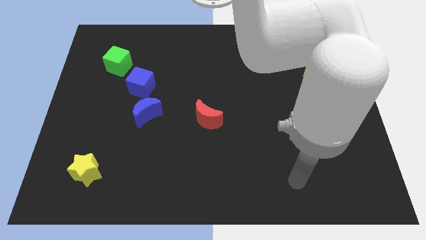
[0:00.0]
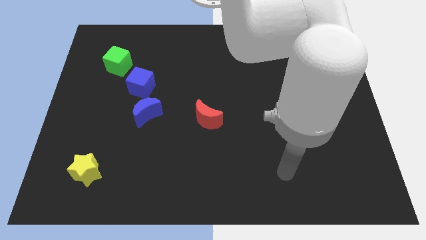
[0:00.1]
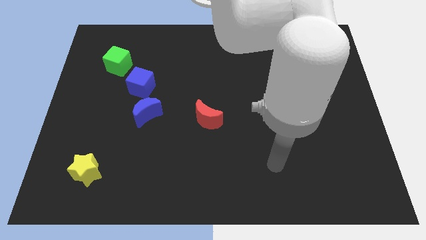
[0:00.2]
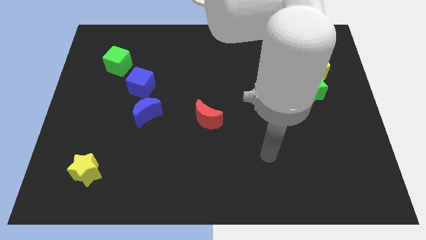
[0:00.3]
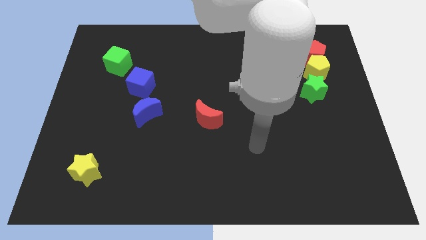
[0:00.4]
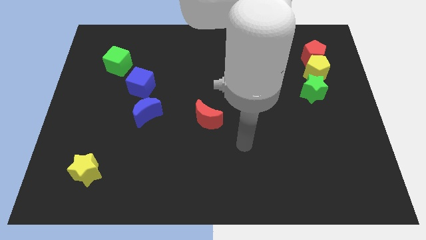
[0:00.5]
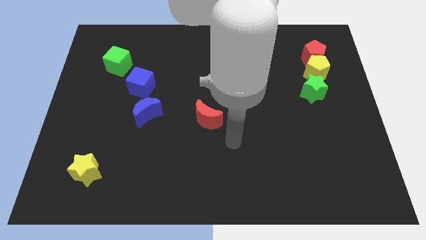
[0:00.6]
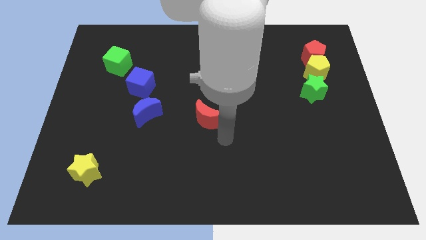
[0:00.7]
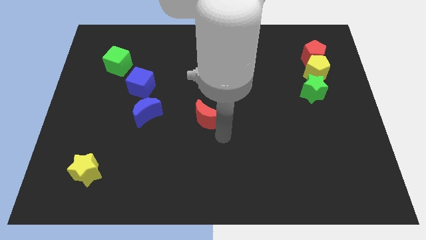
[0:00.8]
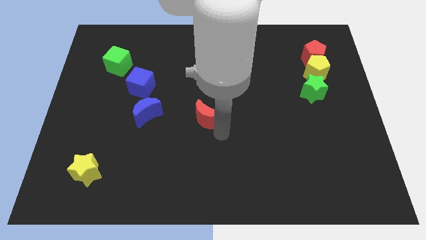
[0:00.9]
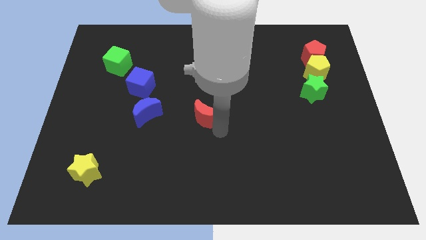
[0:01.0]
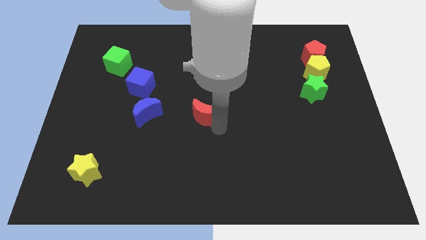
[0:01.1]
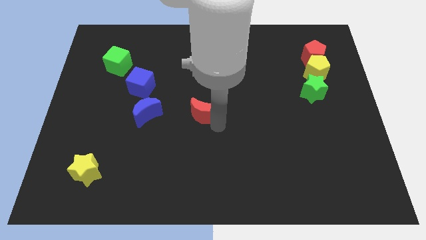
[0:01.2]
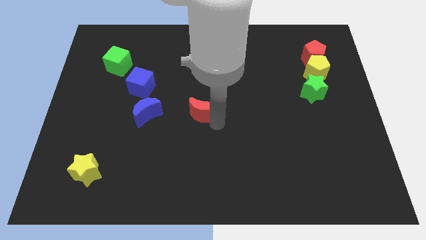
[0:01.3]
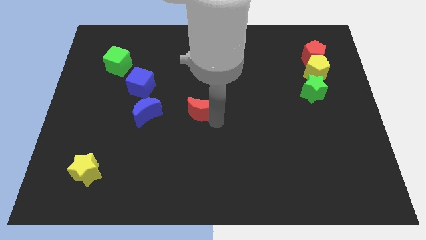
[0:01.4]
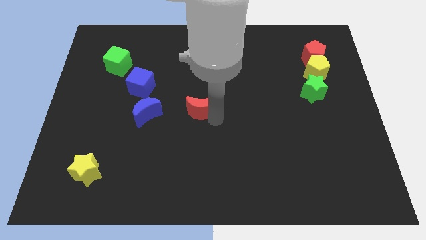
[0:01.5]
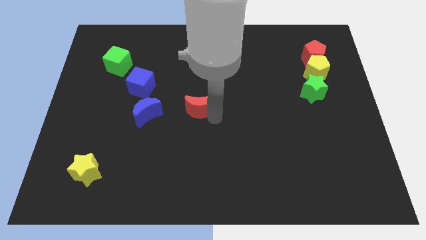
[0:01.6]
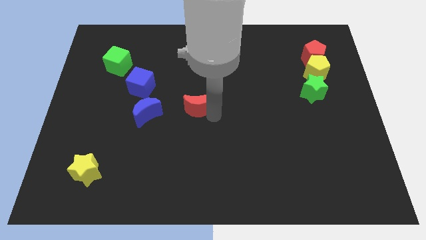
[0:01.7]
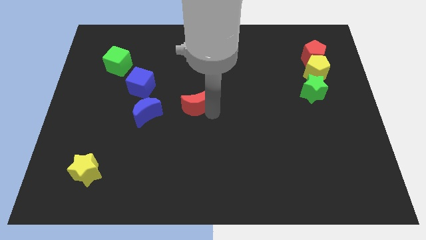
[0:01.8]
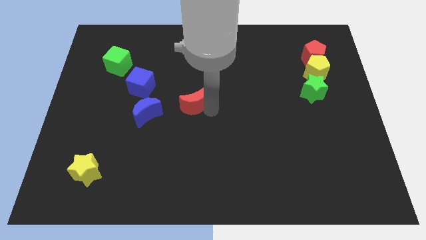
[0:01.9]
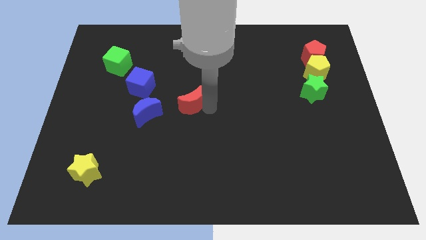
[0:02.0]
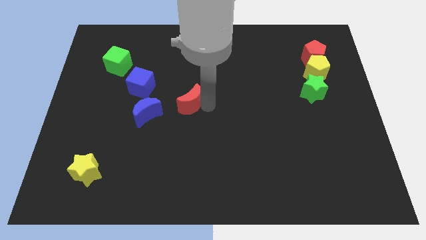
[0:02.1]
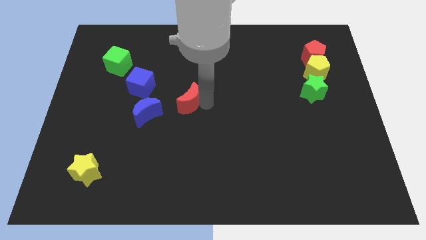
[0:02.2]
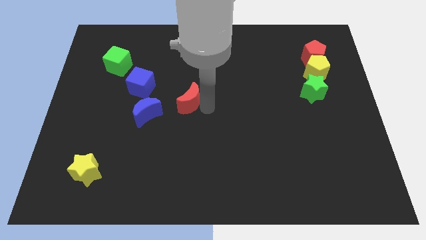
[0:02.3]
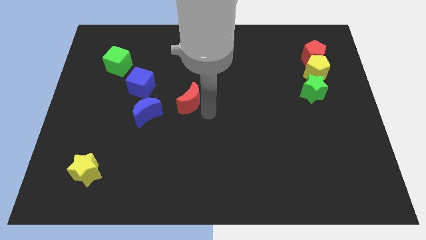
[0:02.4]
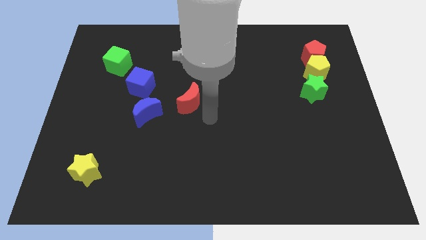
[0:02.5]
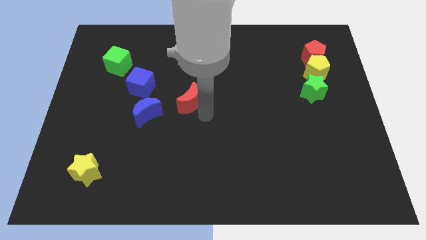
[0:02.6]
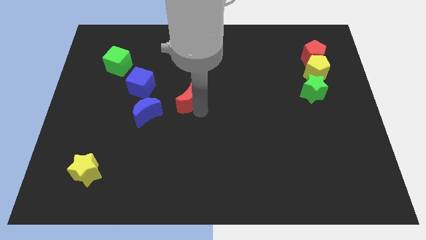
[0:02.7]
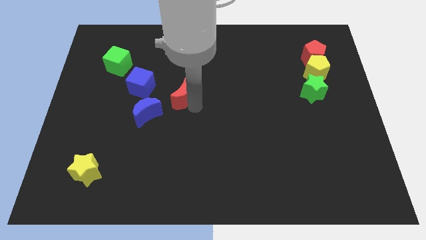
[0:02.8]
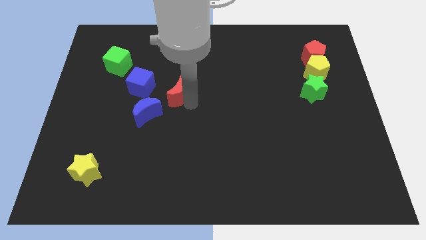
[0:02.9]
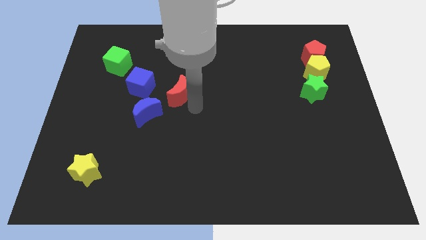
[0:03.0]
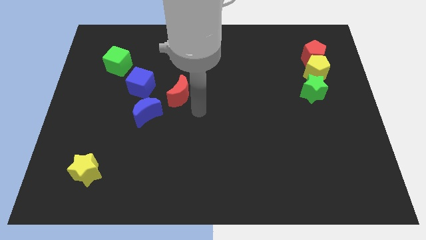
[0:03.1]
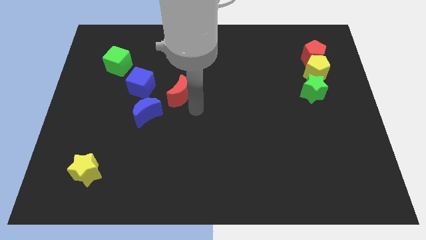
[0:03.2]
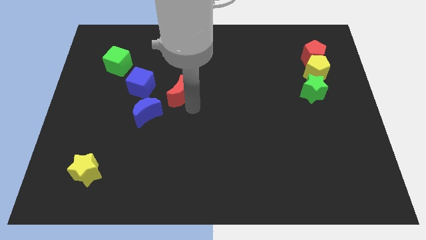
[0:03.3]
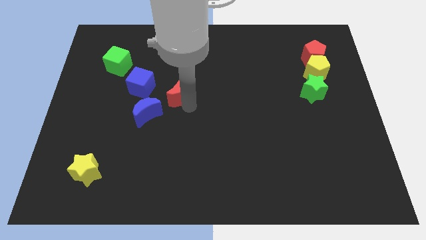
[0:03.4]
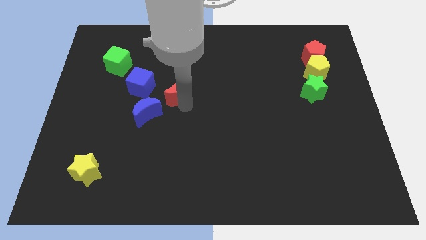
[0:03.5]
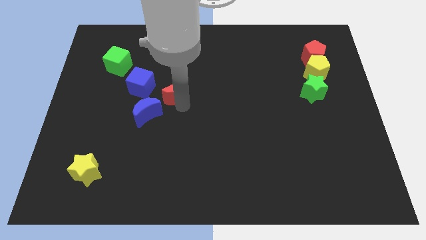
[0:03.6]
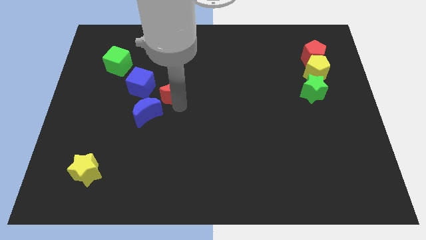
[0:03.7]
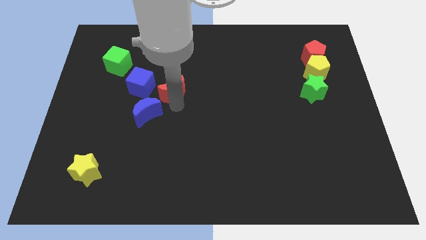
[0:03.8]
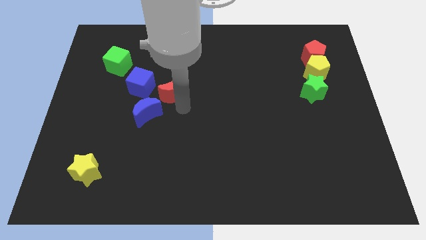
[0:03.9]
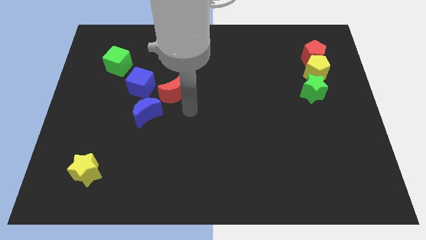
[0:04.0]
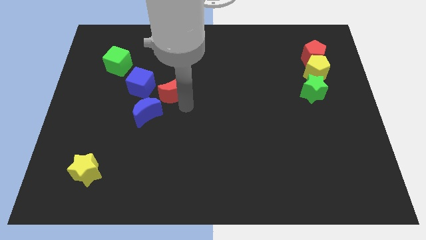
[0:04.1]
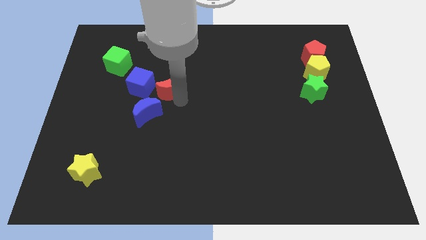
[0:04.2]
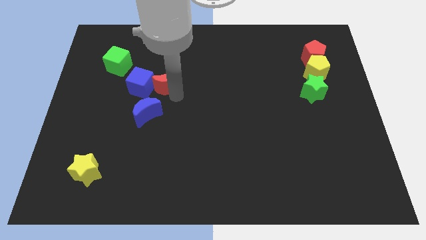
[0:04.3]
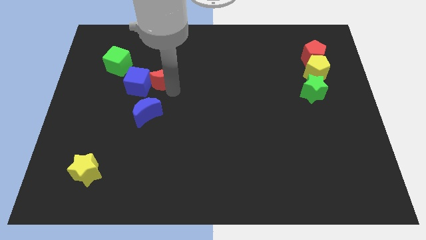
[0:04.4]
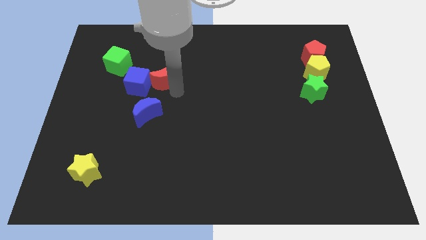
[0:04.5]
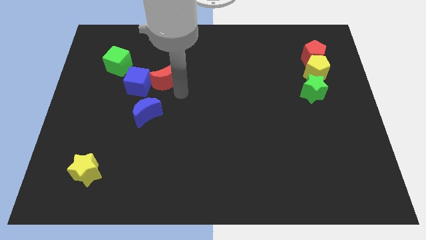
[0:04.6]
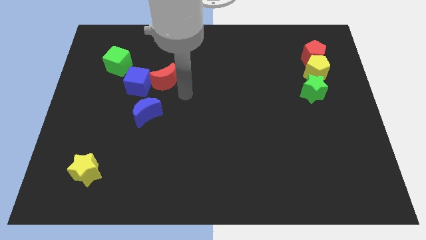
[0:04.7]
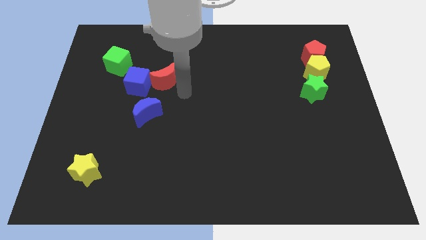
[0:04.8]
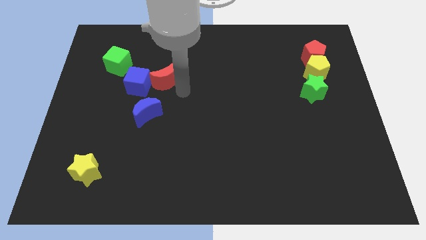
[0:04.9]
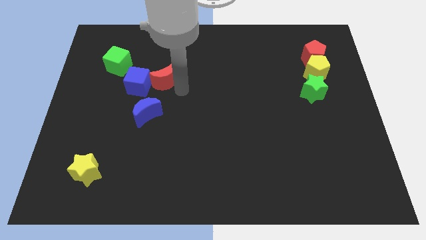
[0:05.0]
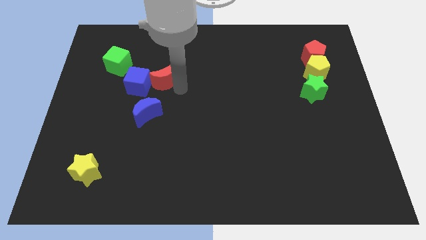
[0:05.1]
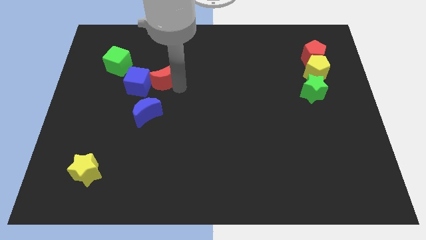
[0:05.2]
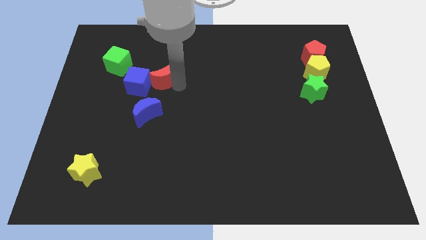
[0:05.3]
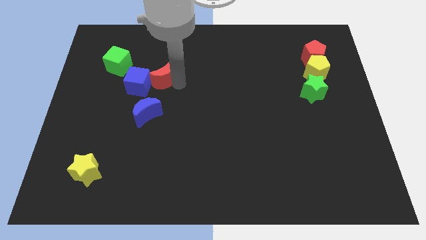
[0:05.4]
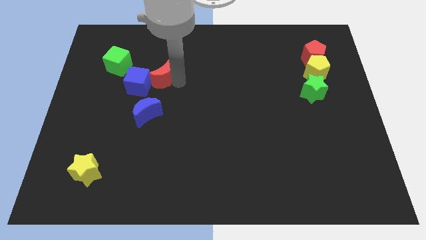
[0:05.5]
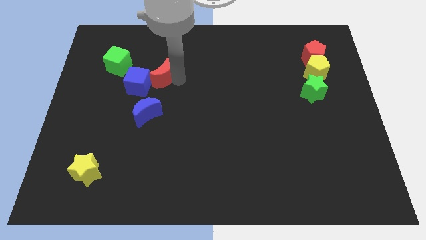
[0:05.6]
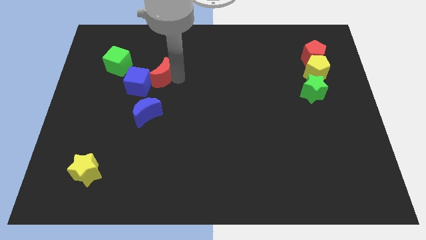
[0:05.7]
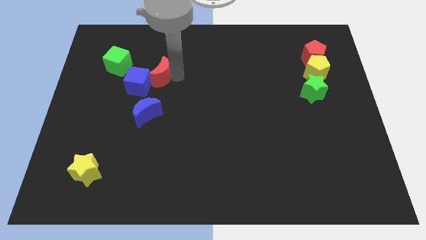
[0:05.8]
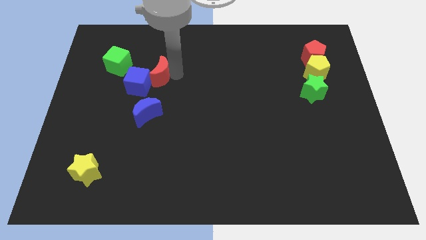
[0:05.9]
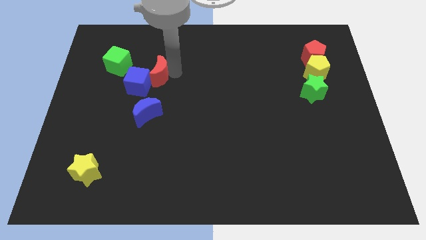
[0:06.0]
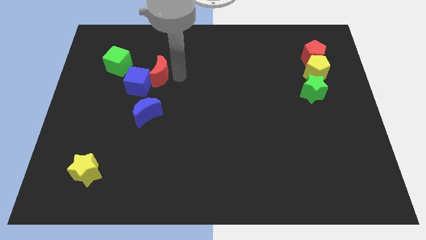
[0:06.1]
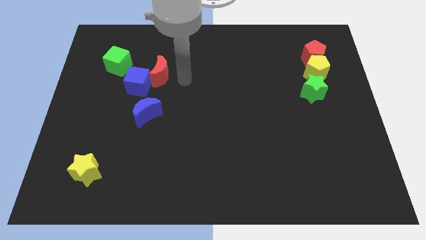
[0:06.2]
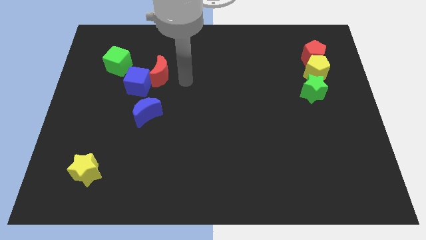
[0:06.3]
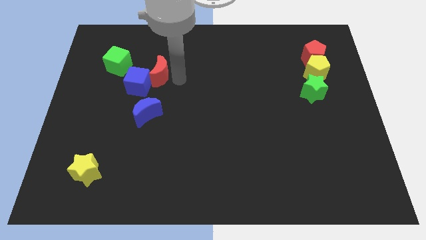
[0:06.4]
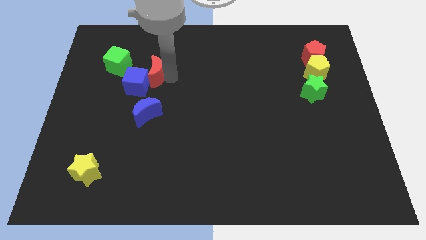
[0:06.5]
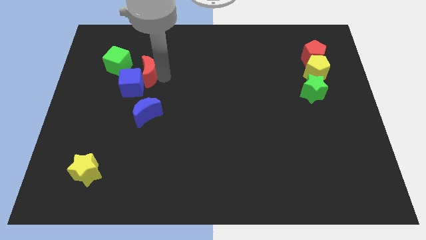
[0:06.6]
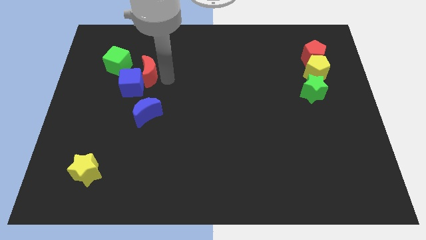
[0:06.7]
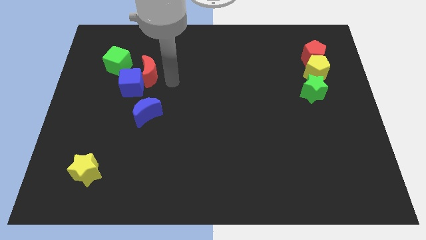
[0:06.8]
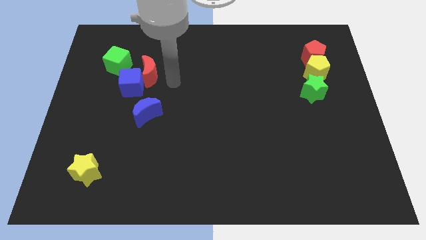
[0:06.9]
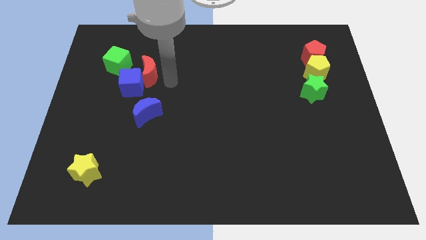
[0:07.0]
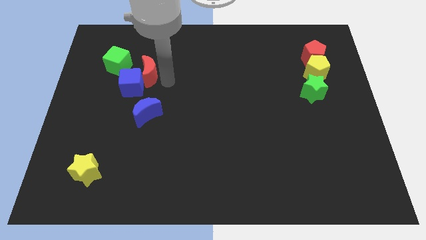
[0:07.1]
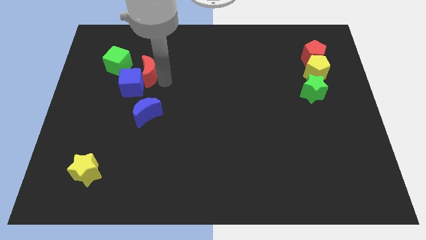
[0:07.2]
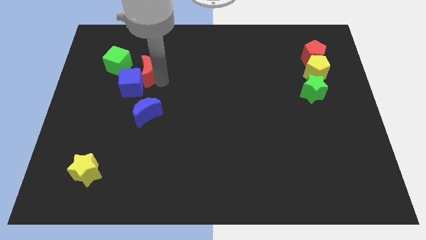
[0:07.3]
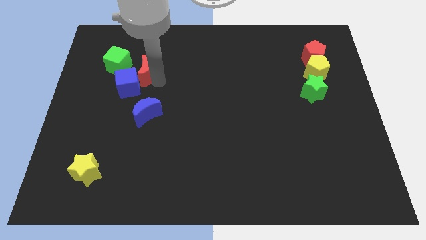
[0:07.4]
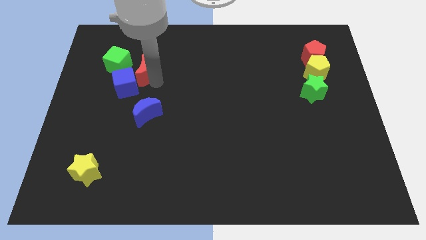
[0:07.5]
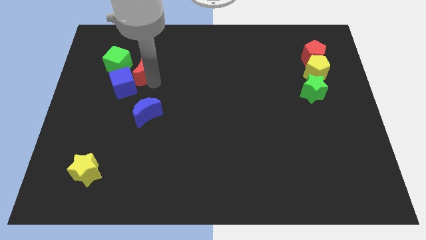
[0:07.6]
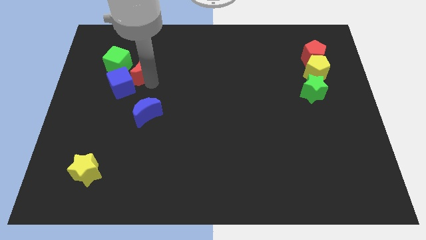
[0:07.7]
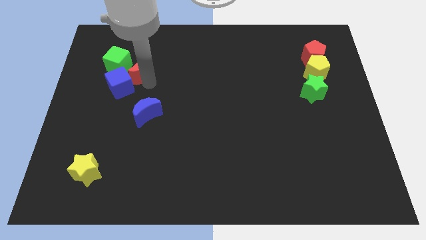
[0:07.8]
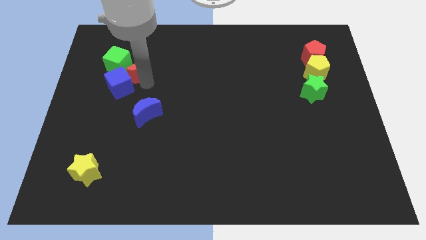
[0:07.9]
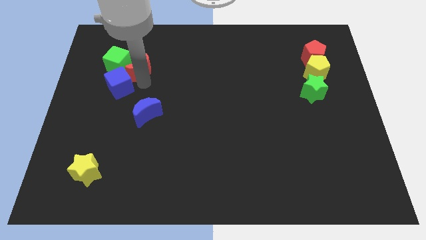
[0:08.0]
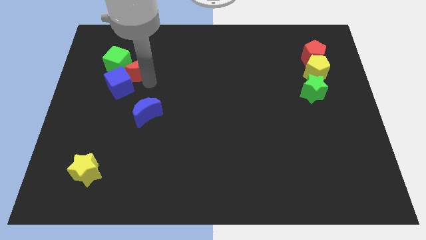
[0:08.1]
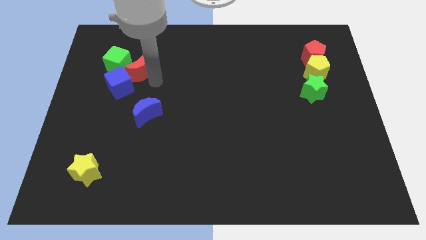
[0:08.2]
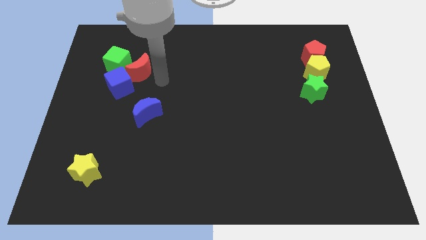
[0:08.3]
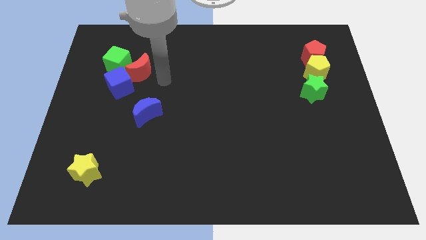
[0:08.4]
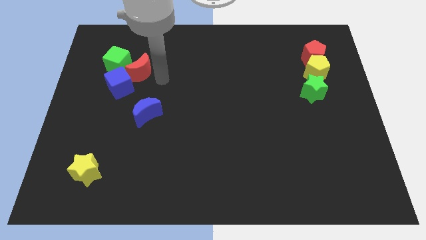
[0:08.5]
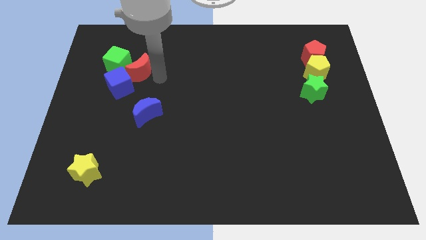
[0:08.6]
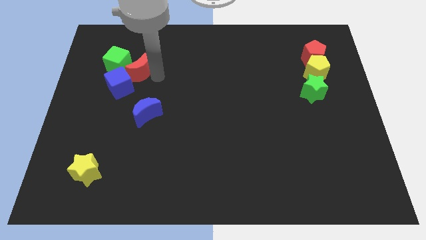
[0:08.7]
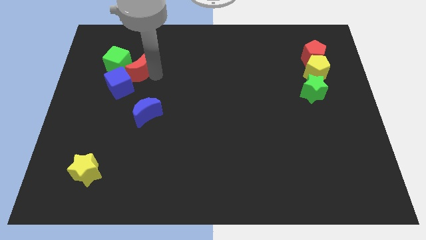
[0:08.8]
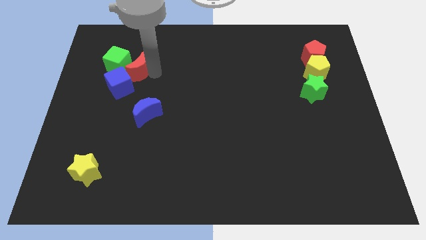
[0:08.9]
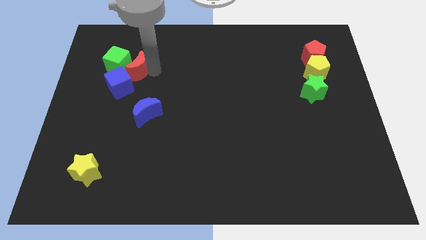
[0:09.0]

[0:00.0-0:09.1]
slide the red moon next to the green cube
